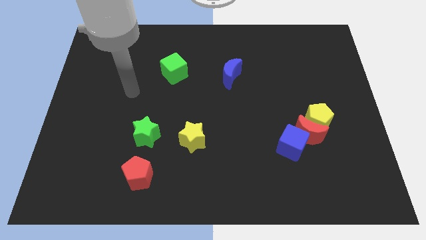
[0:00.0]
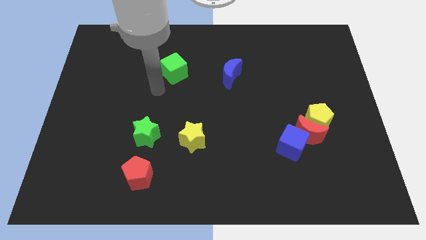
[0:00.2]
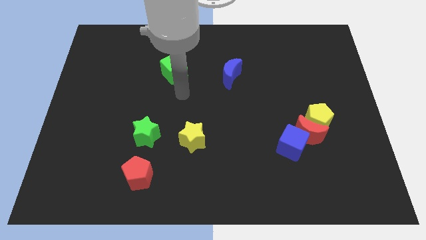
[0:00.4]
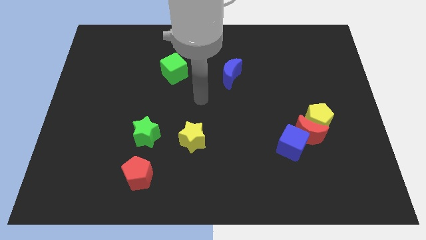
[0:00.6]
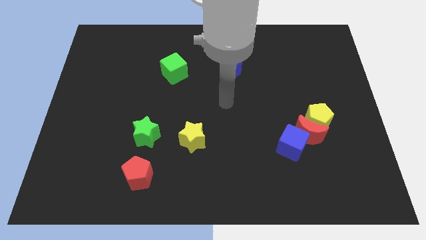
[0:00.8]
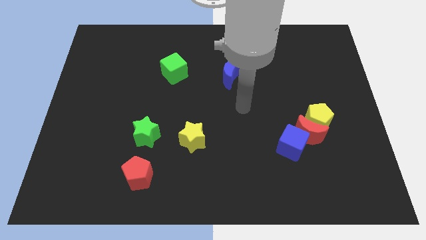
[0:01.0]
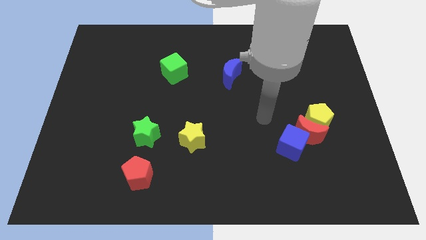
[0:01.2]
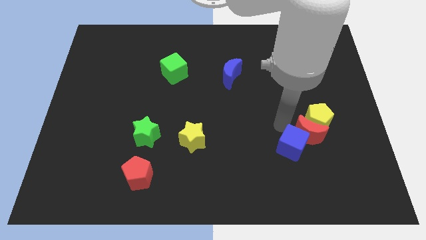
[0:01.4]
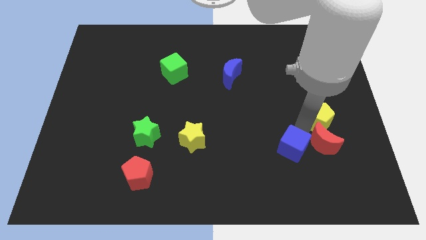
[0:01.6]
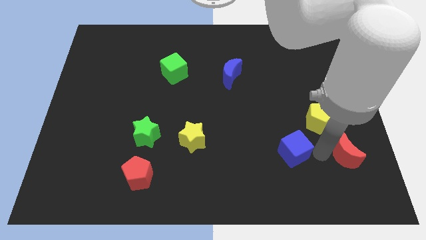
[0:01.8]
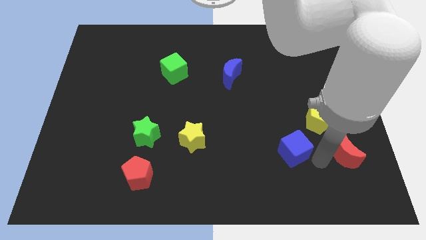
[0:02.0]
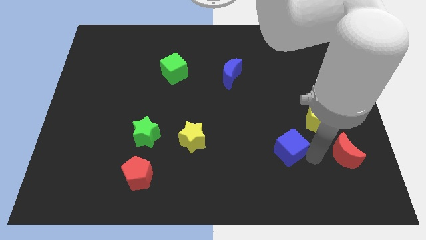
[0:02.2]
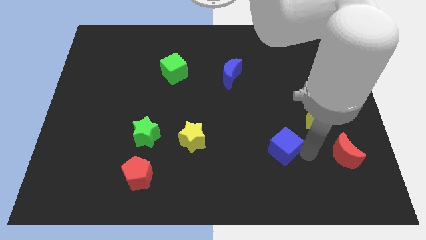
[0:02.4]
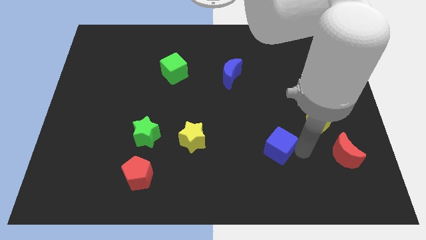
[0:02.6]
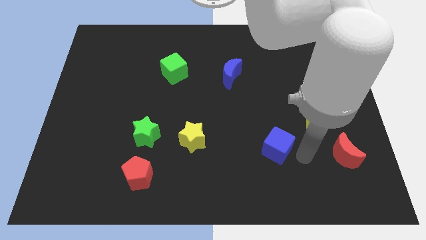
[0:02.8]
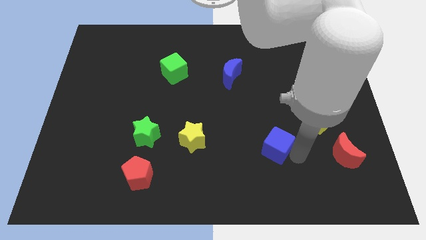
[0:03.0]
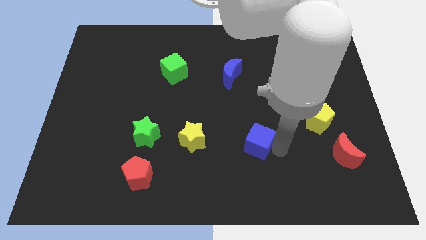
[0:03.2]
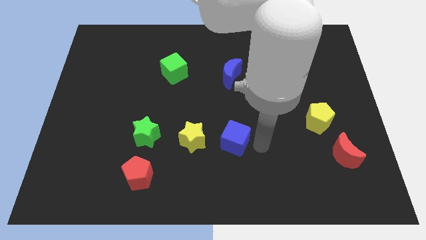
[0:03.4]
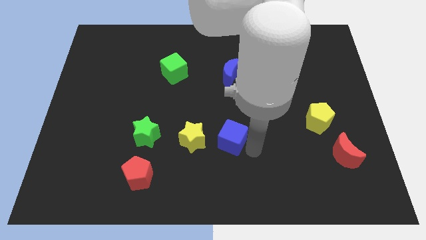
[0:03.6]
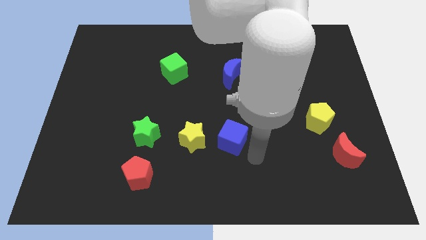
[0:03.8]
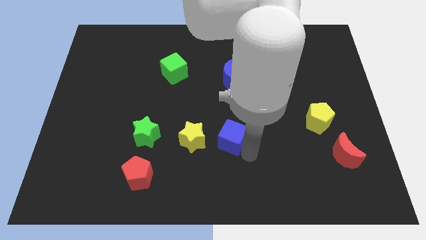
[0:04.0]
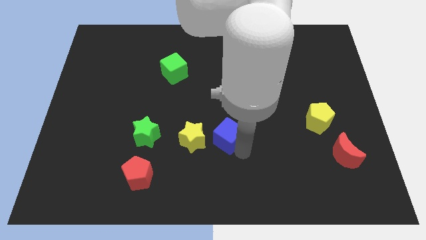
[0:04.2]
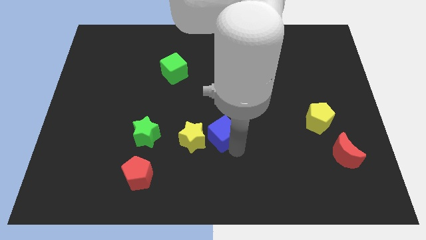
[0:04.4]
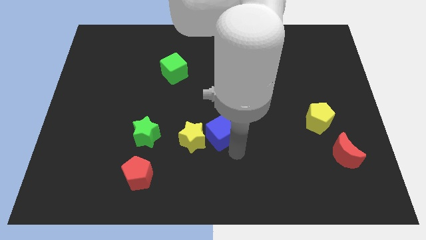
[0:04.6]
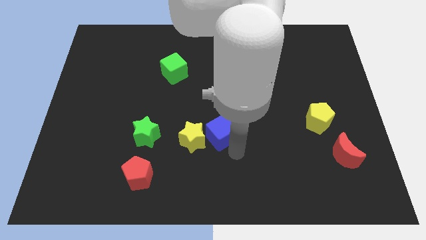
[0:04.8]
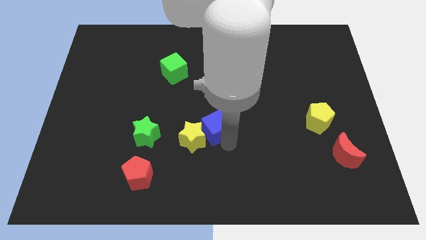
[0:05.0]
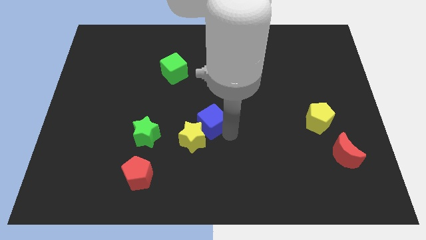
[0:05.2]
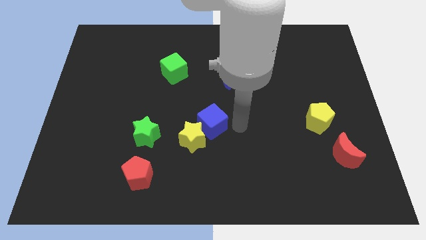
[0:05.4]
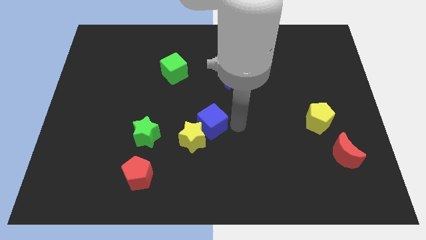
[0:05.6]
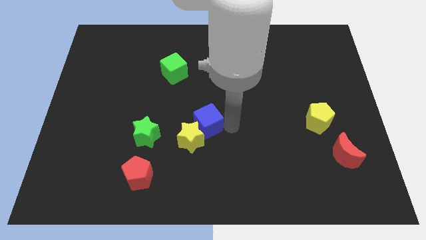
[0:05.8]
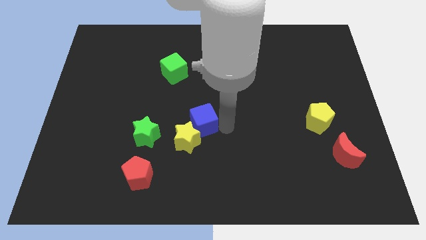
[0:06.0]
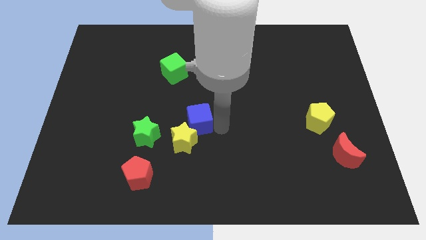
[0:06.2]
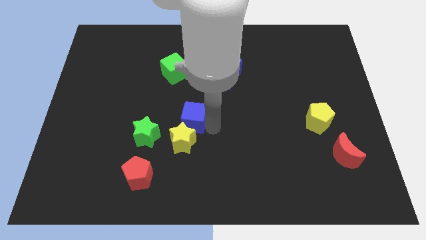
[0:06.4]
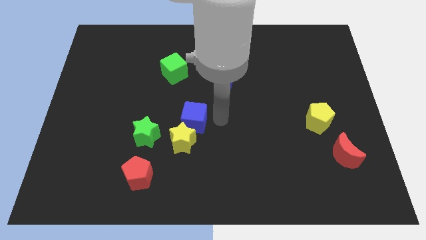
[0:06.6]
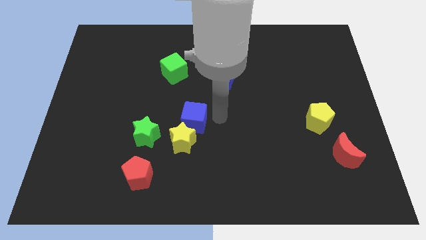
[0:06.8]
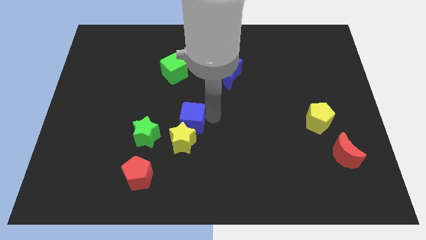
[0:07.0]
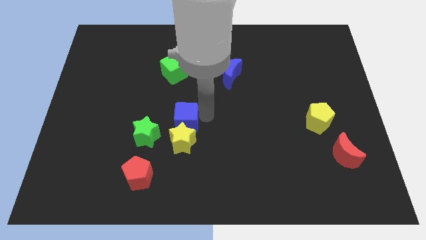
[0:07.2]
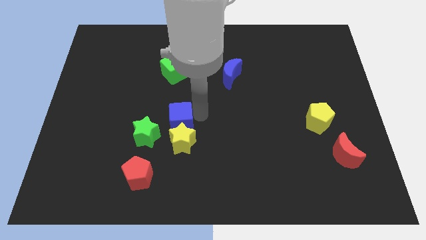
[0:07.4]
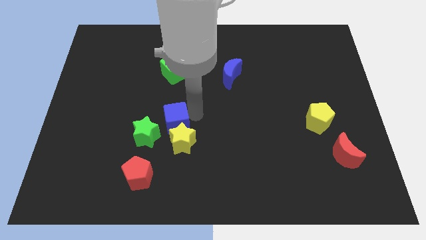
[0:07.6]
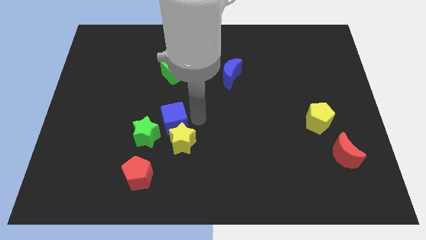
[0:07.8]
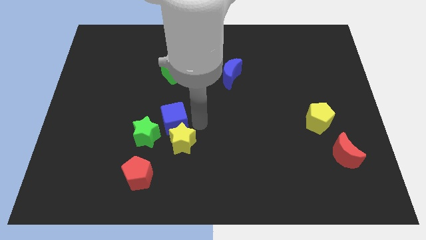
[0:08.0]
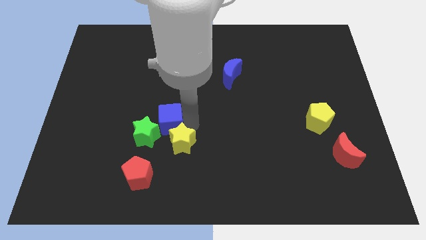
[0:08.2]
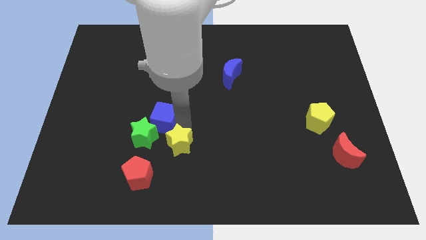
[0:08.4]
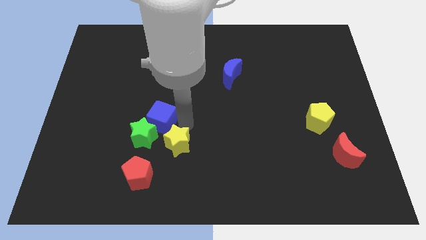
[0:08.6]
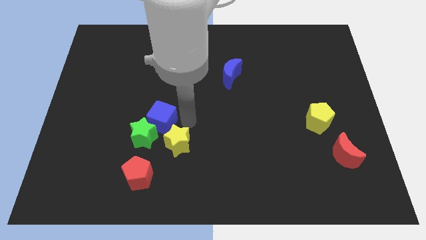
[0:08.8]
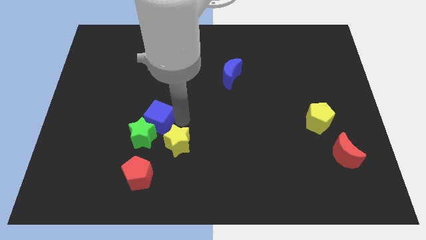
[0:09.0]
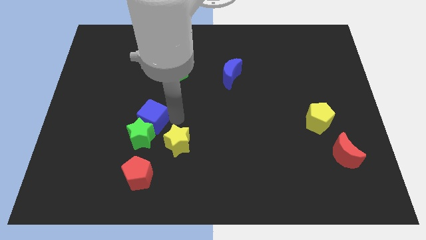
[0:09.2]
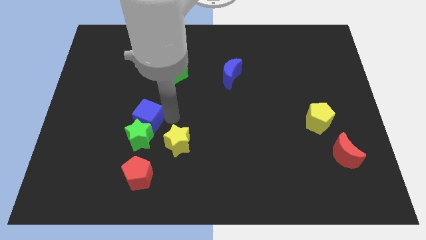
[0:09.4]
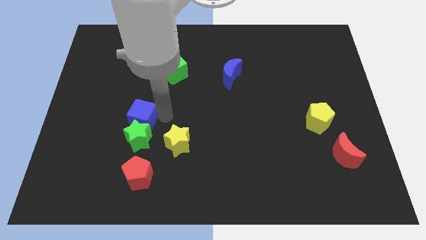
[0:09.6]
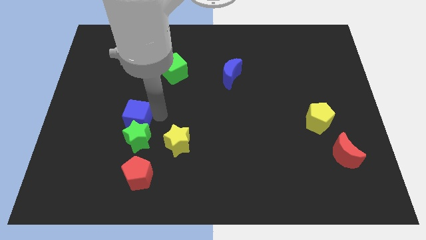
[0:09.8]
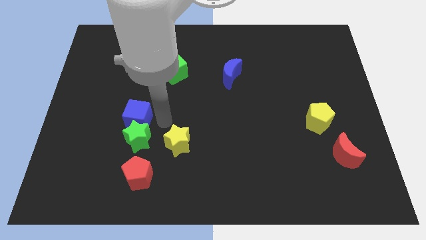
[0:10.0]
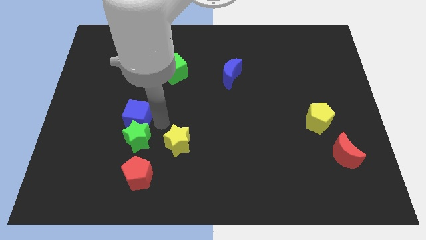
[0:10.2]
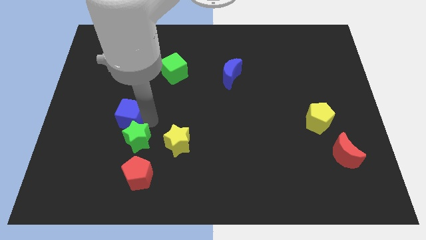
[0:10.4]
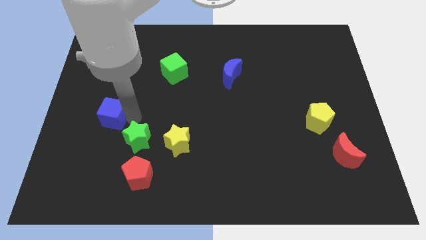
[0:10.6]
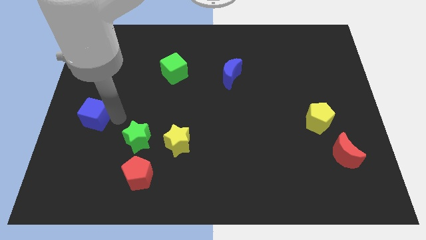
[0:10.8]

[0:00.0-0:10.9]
push the blue cube to the left side of the board
